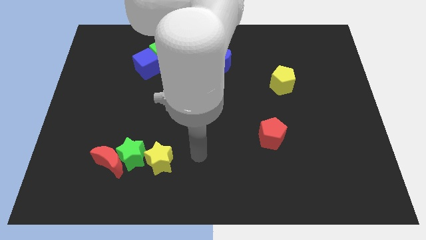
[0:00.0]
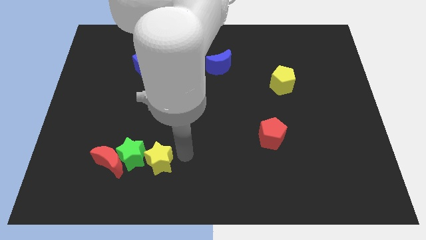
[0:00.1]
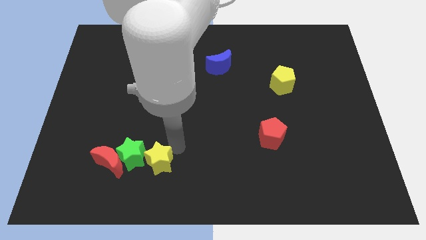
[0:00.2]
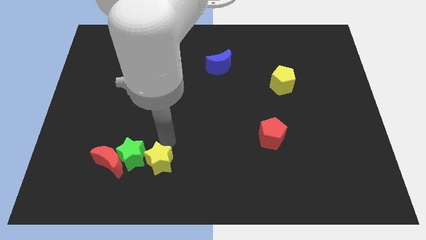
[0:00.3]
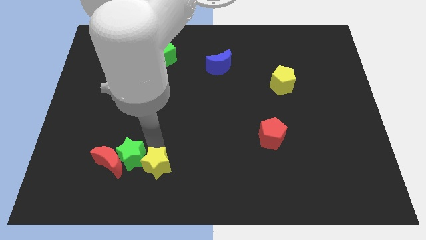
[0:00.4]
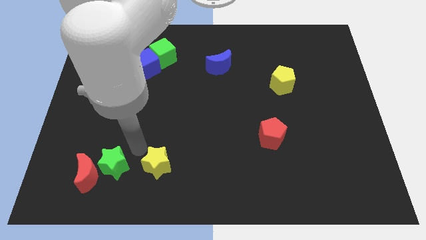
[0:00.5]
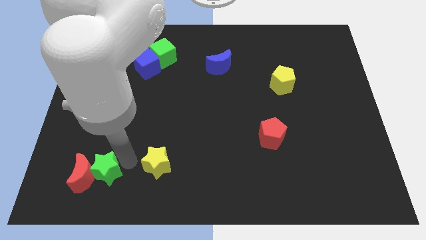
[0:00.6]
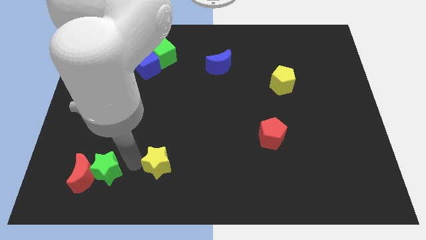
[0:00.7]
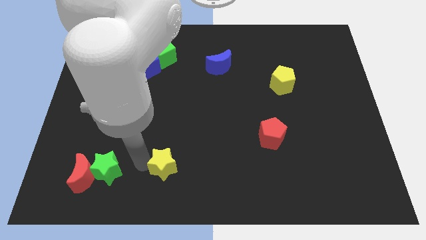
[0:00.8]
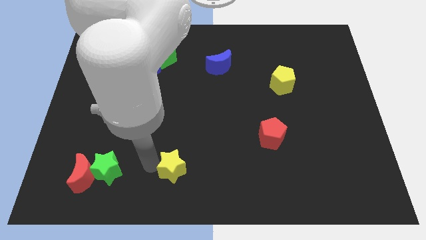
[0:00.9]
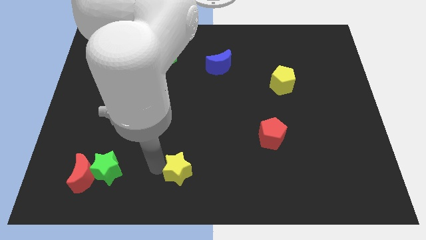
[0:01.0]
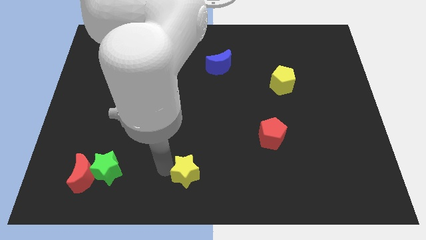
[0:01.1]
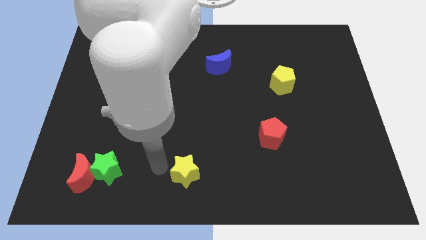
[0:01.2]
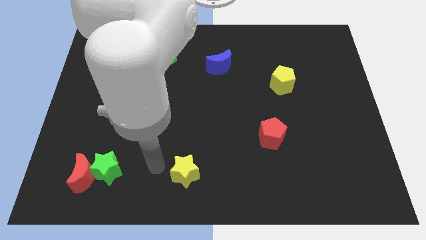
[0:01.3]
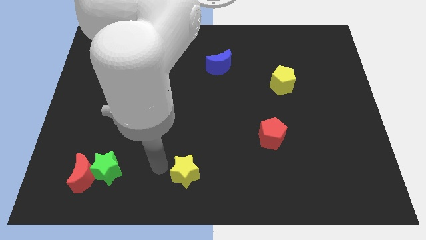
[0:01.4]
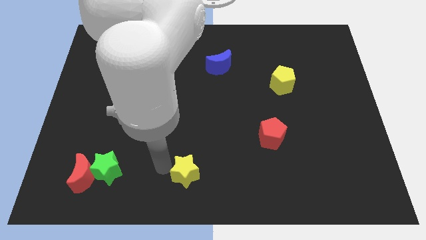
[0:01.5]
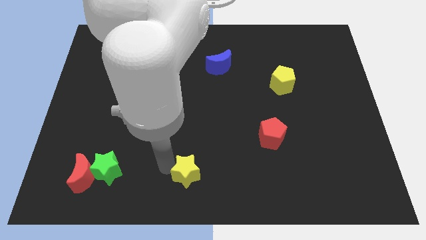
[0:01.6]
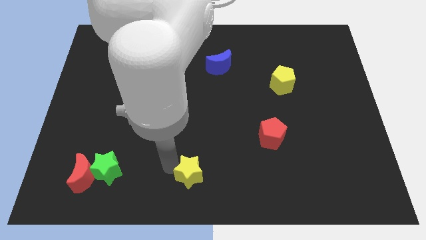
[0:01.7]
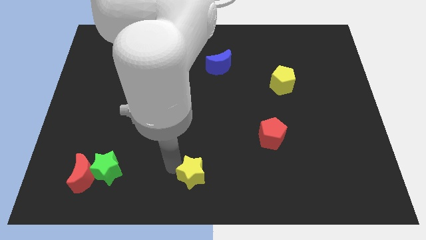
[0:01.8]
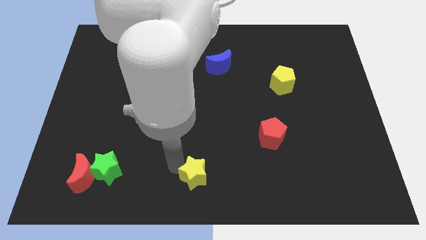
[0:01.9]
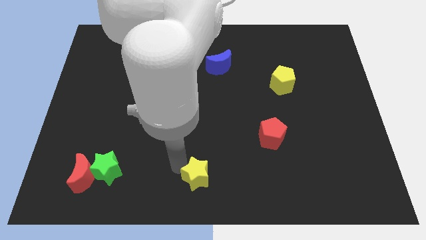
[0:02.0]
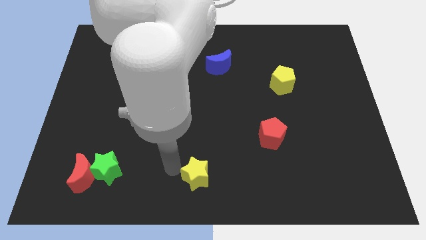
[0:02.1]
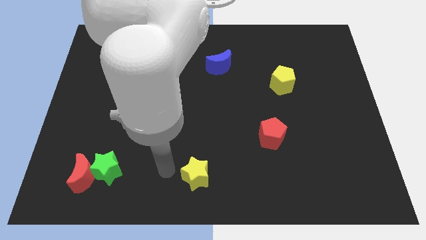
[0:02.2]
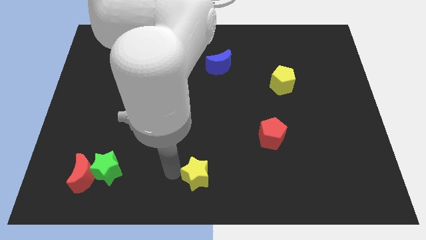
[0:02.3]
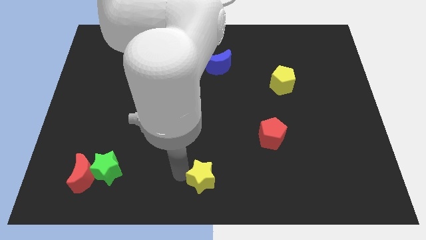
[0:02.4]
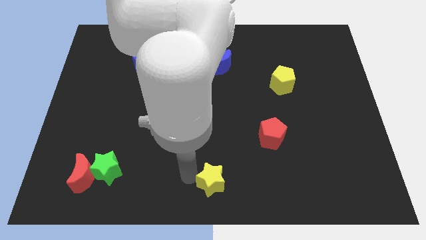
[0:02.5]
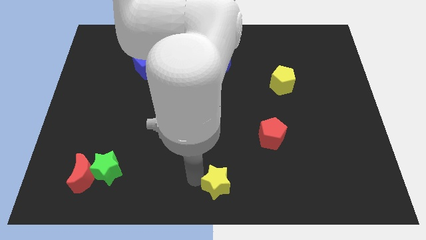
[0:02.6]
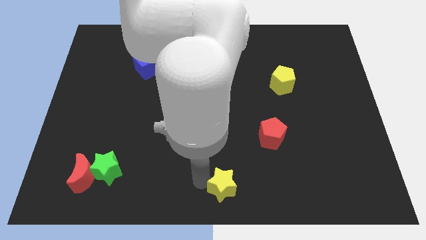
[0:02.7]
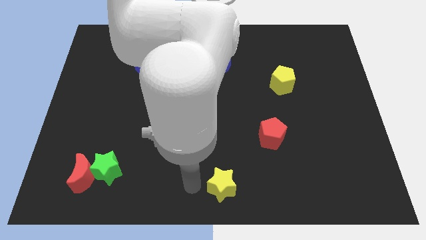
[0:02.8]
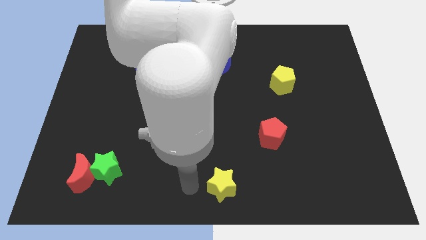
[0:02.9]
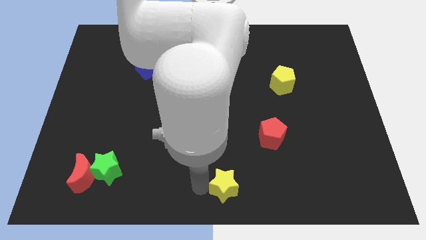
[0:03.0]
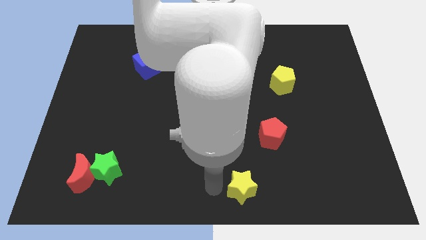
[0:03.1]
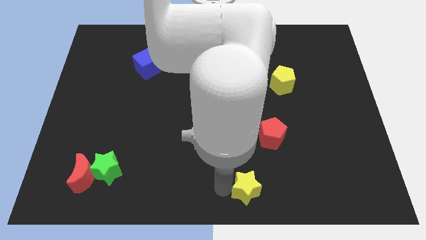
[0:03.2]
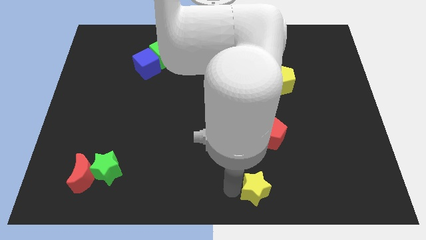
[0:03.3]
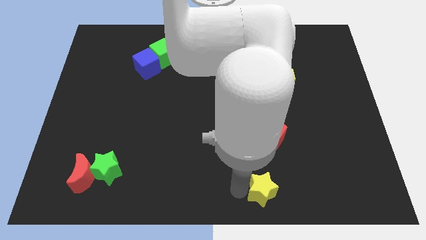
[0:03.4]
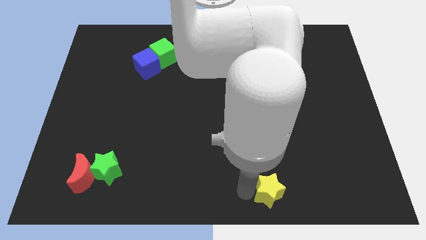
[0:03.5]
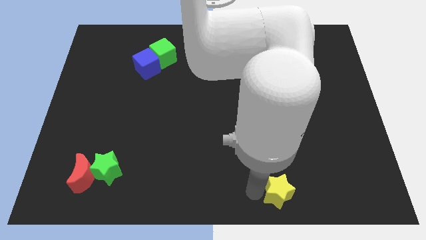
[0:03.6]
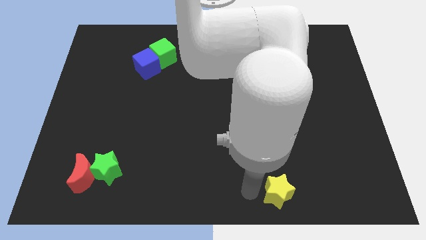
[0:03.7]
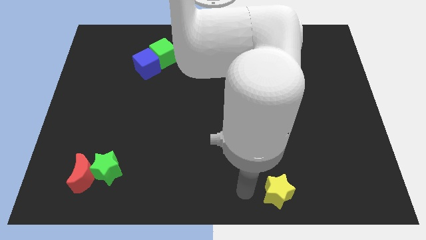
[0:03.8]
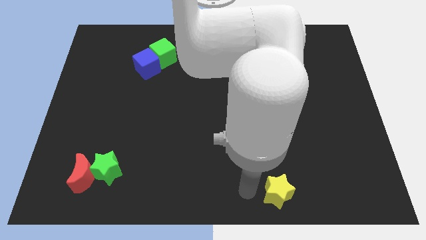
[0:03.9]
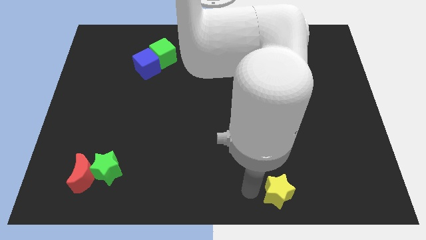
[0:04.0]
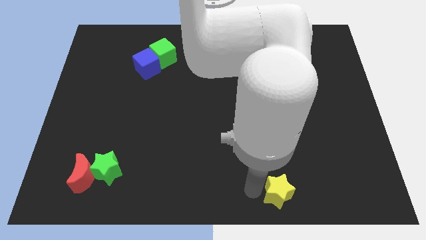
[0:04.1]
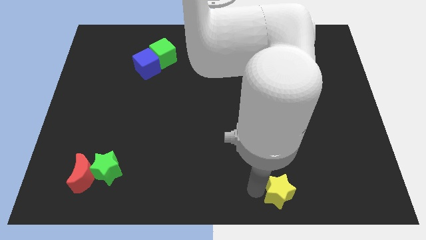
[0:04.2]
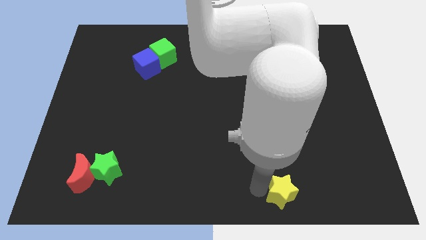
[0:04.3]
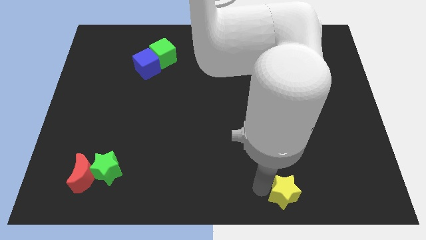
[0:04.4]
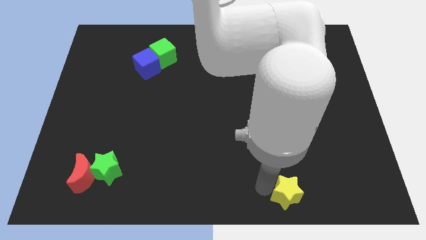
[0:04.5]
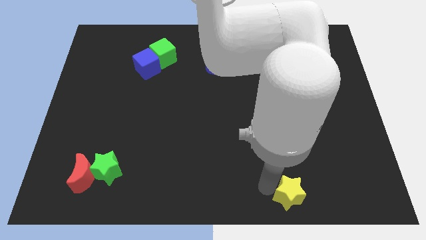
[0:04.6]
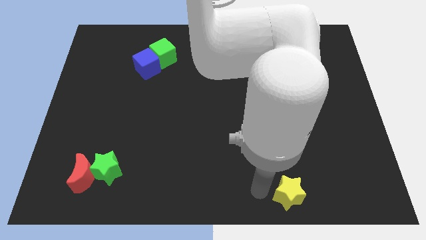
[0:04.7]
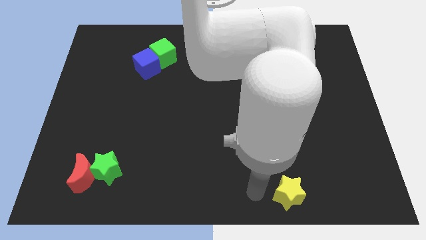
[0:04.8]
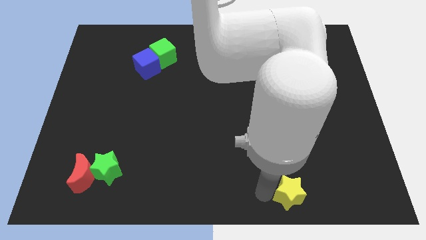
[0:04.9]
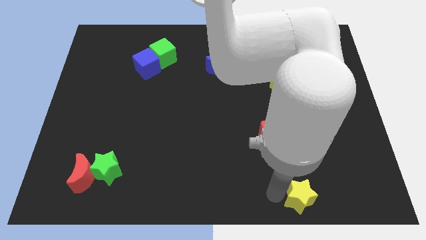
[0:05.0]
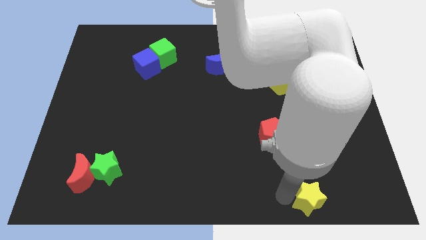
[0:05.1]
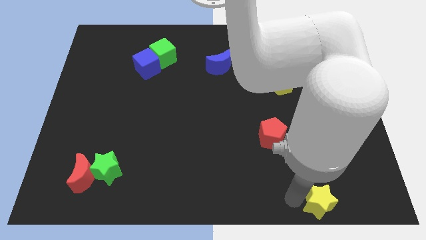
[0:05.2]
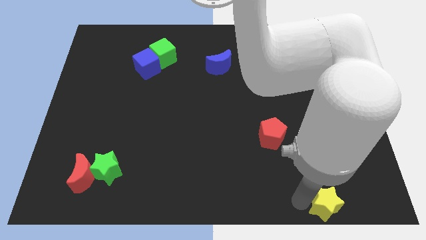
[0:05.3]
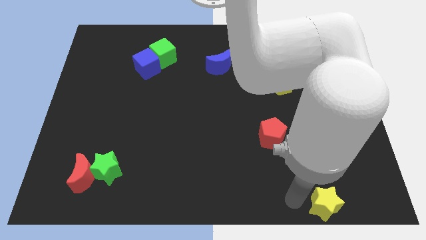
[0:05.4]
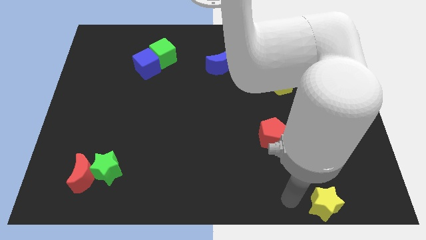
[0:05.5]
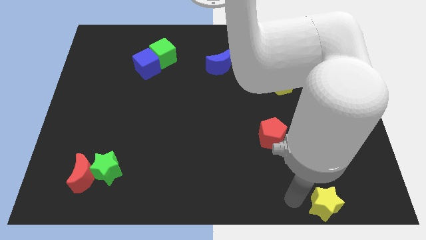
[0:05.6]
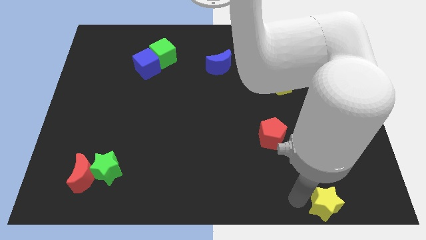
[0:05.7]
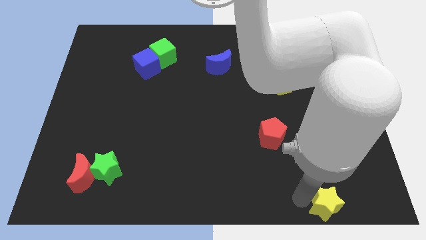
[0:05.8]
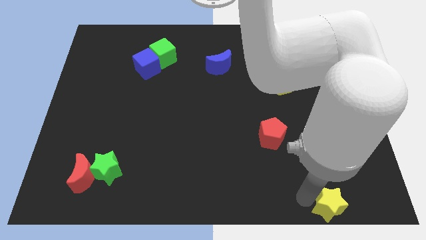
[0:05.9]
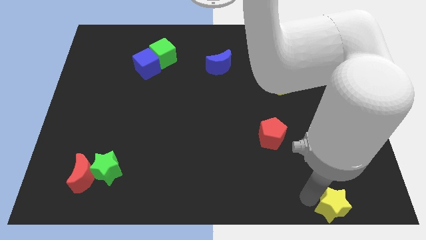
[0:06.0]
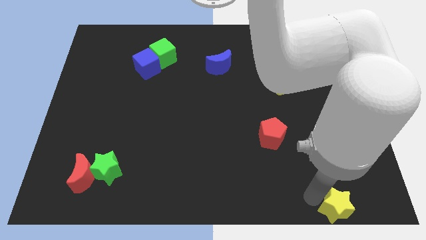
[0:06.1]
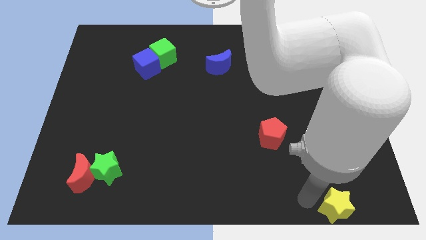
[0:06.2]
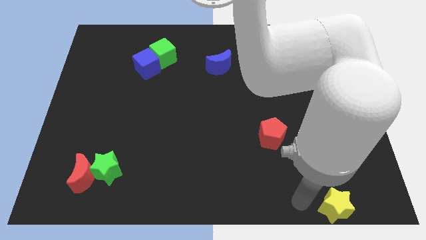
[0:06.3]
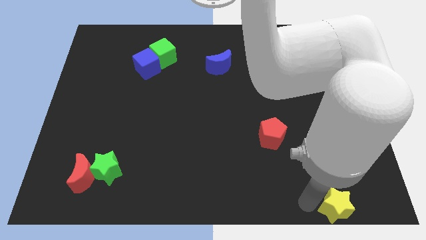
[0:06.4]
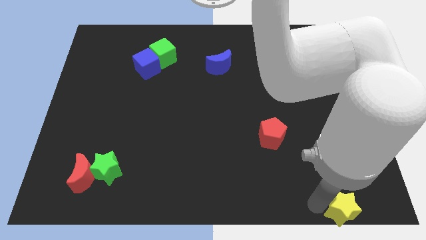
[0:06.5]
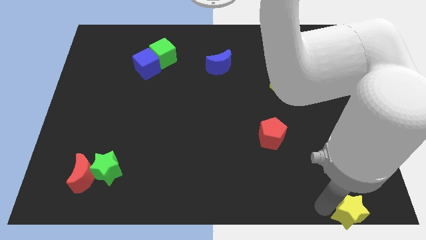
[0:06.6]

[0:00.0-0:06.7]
put the yellow star to the bottom right corner
